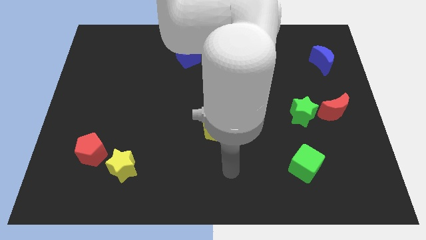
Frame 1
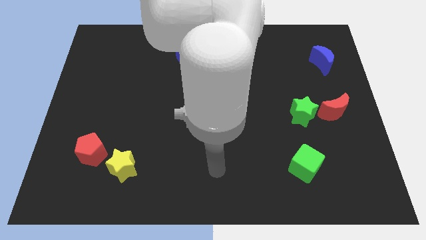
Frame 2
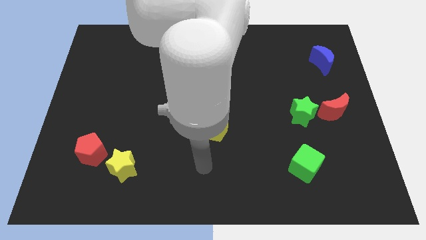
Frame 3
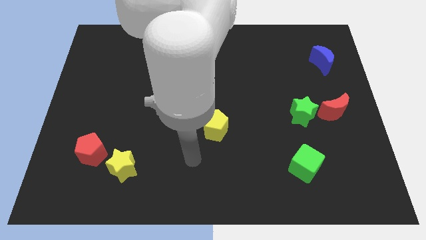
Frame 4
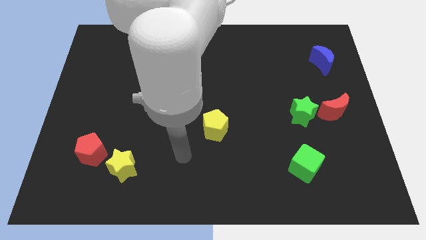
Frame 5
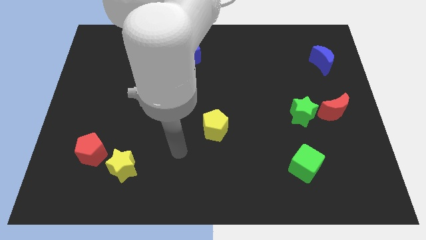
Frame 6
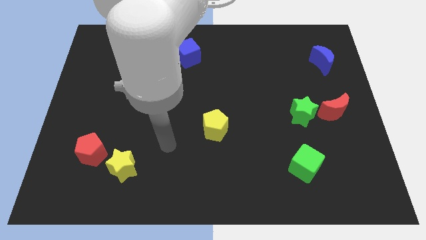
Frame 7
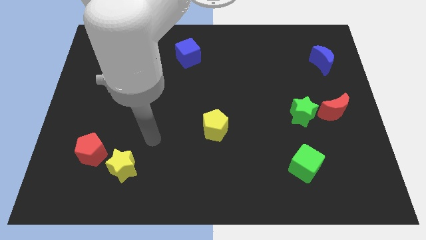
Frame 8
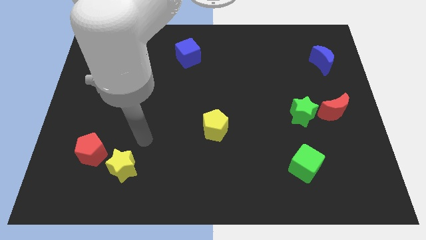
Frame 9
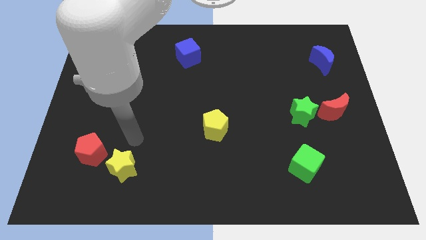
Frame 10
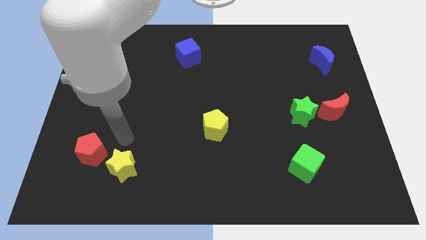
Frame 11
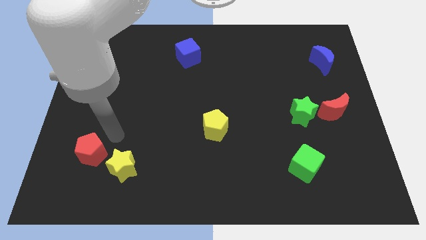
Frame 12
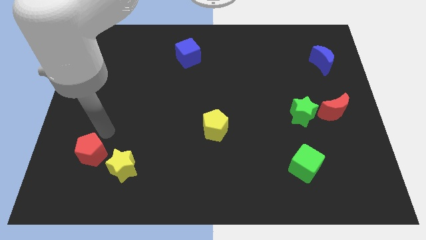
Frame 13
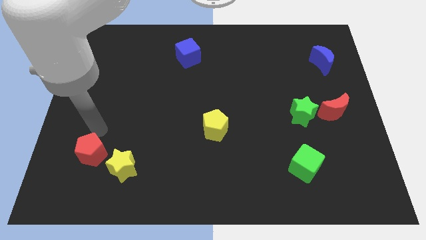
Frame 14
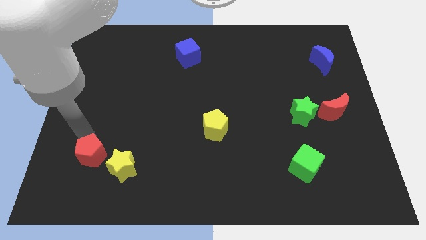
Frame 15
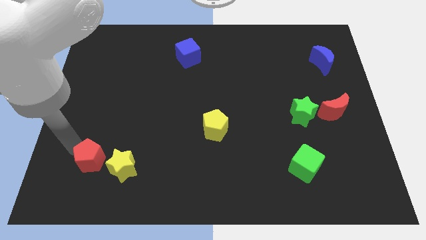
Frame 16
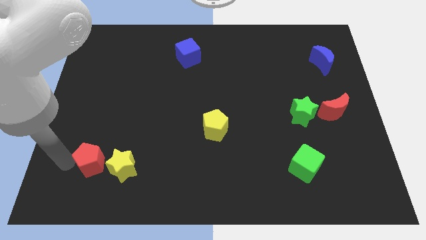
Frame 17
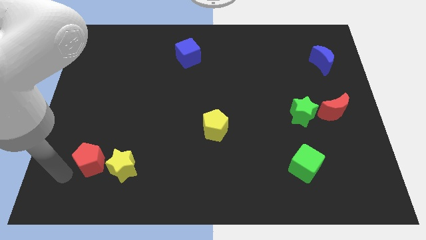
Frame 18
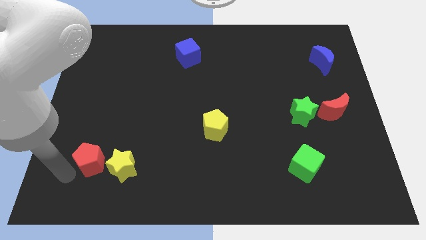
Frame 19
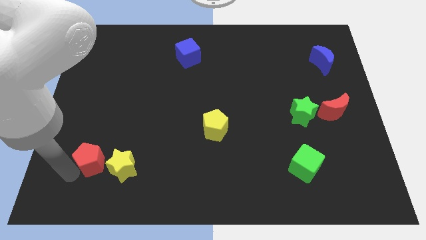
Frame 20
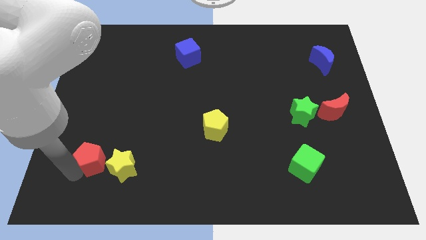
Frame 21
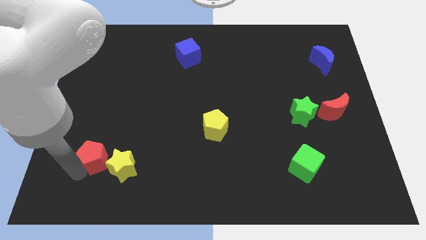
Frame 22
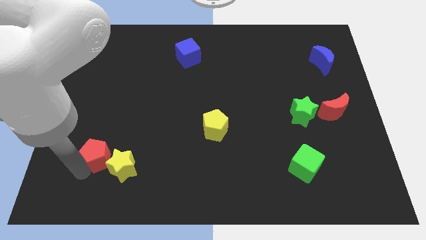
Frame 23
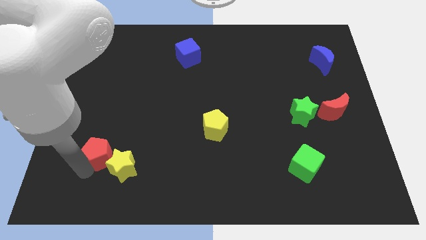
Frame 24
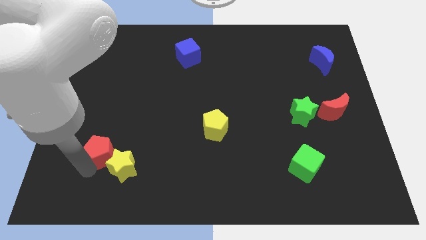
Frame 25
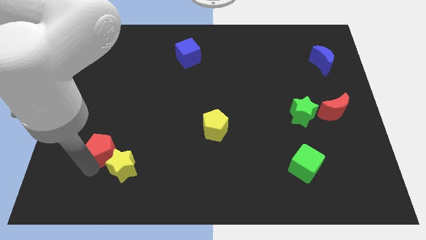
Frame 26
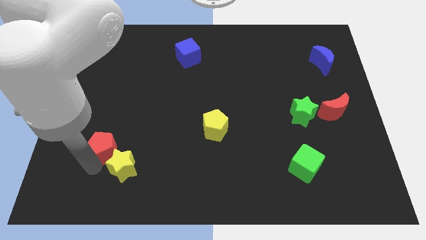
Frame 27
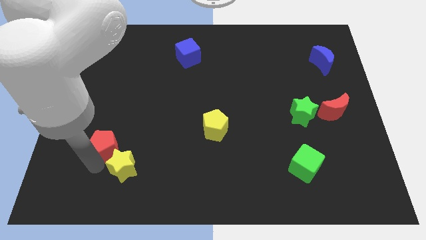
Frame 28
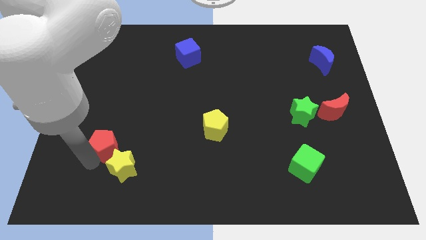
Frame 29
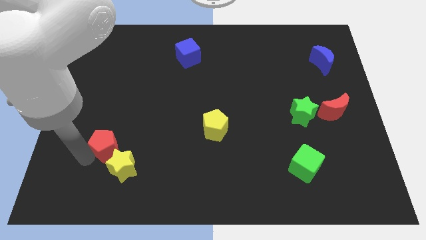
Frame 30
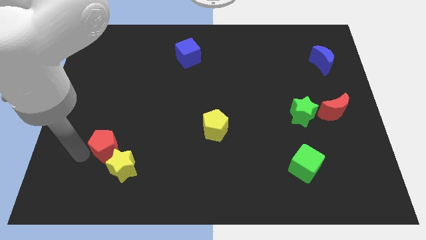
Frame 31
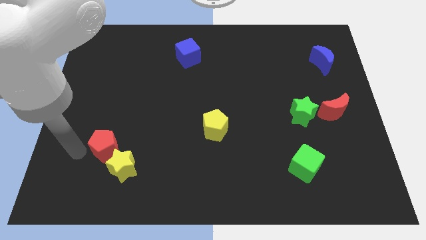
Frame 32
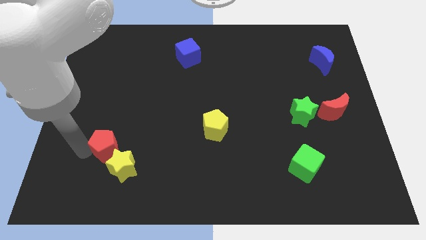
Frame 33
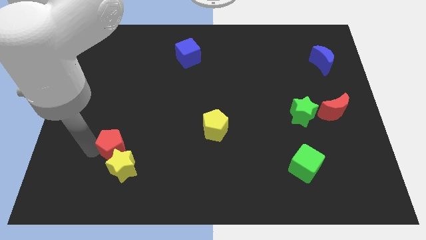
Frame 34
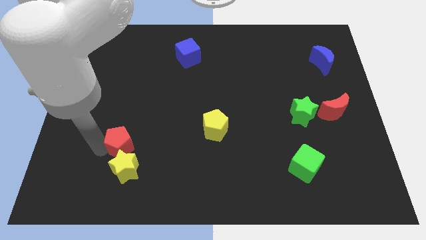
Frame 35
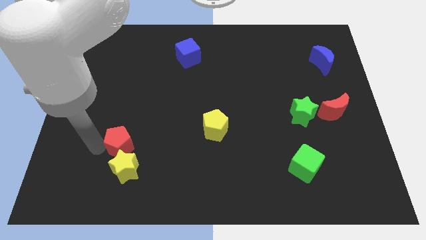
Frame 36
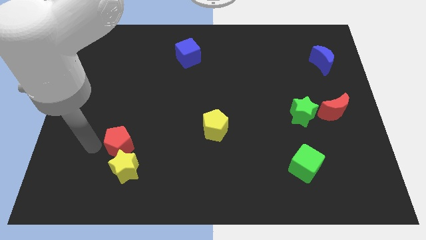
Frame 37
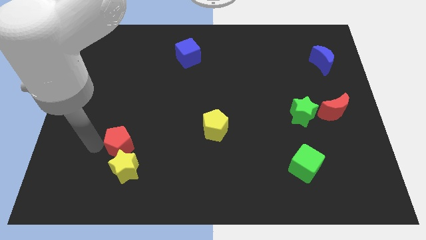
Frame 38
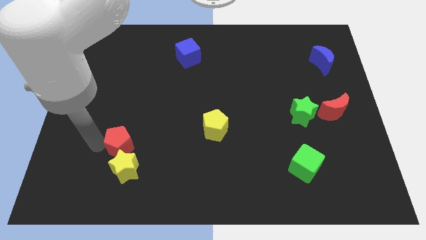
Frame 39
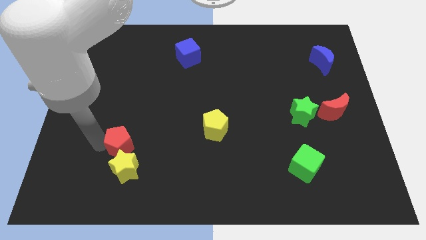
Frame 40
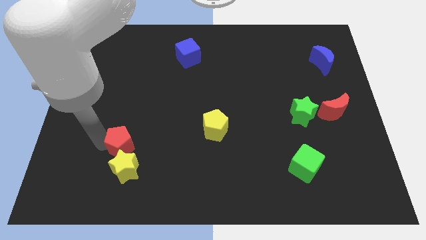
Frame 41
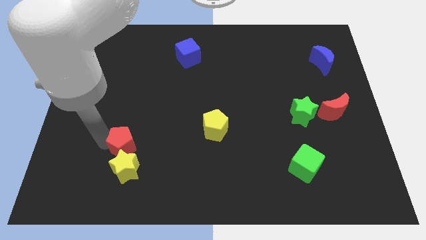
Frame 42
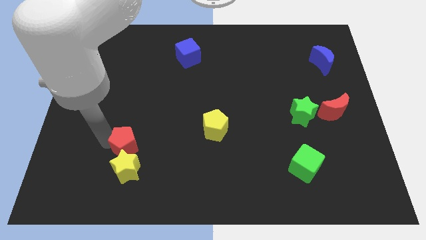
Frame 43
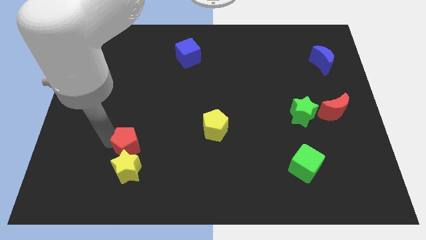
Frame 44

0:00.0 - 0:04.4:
push the red pentagon a bit right

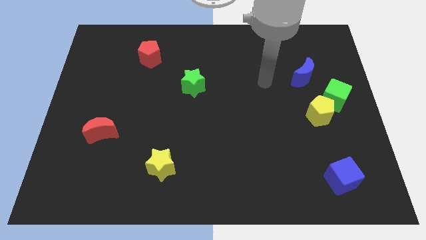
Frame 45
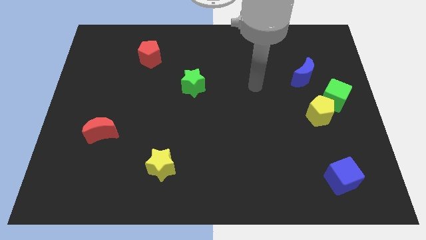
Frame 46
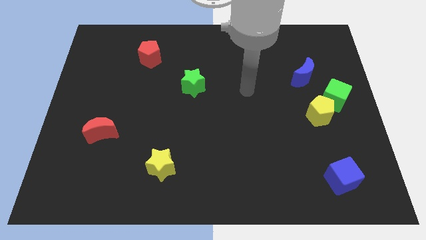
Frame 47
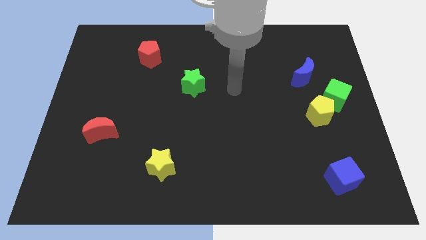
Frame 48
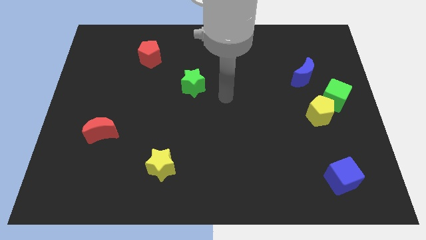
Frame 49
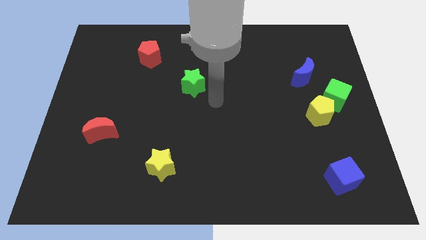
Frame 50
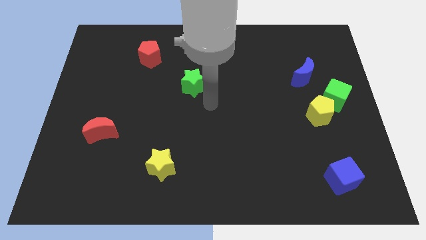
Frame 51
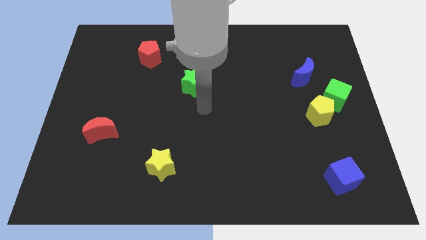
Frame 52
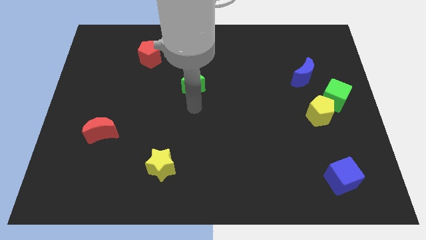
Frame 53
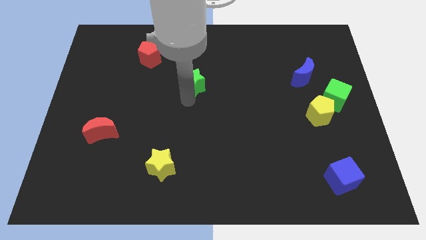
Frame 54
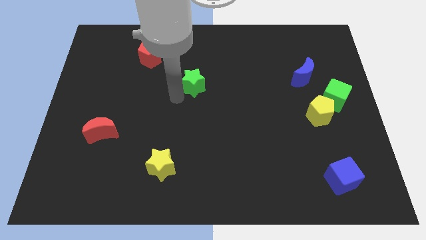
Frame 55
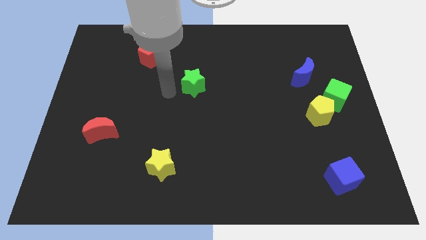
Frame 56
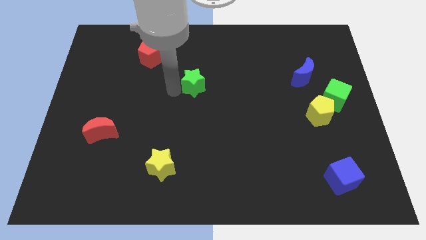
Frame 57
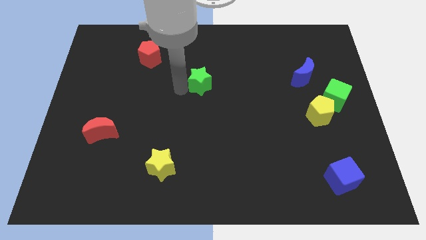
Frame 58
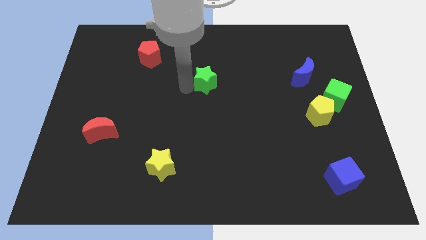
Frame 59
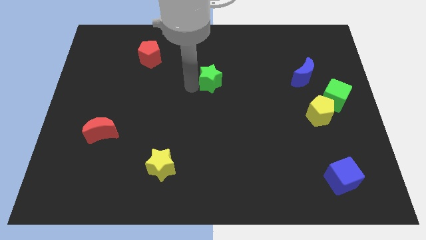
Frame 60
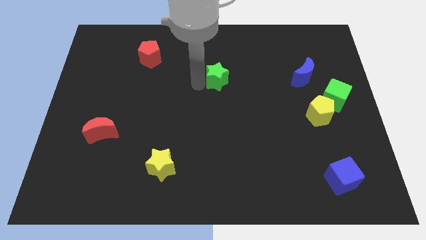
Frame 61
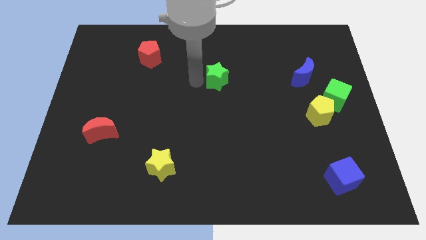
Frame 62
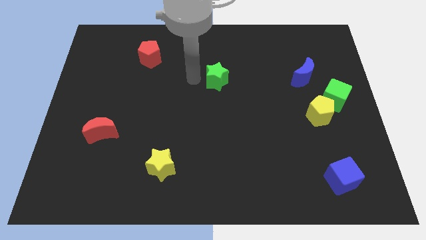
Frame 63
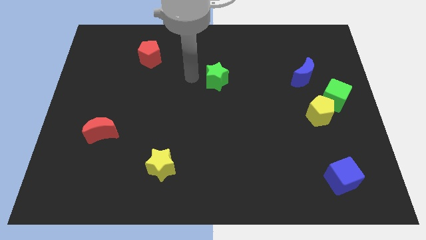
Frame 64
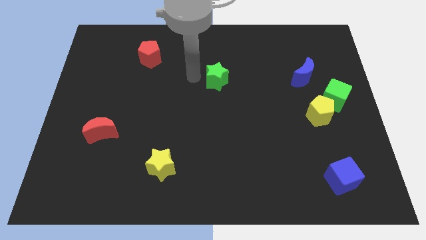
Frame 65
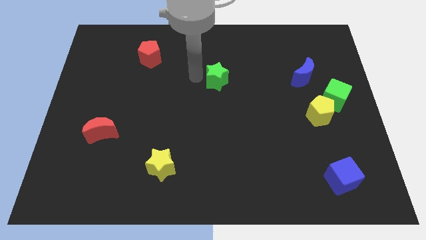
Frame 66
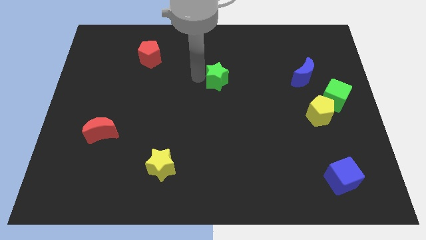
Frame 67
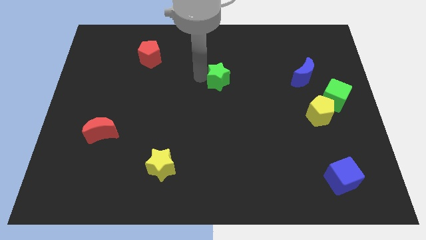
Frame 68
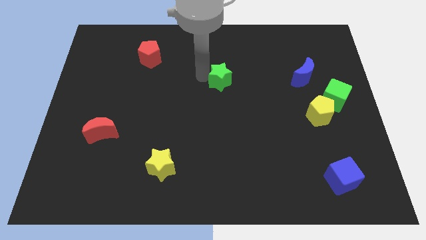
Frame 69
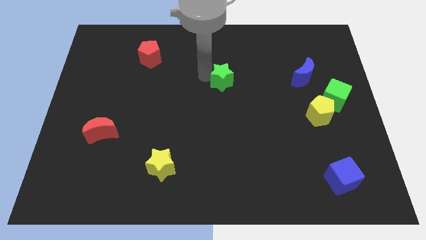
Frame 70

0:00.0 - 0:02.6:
push the green star a little bit right

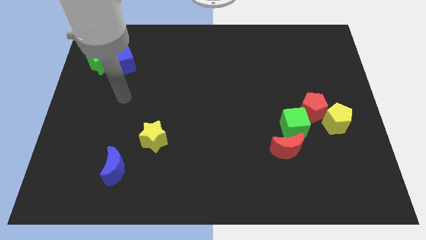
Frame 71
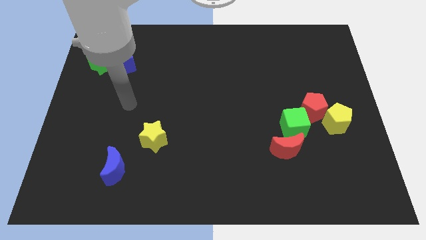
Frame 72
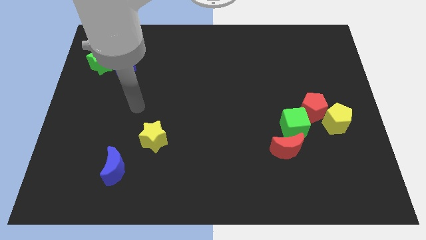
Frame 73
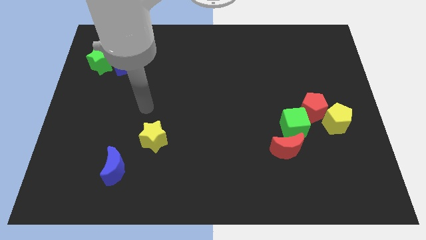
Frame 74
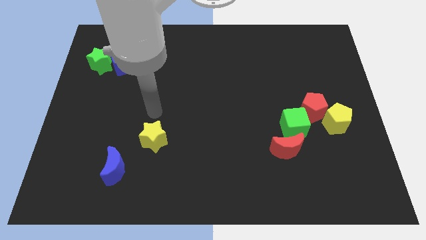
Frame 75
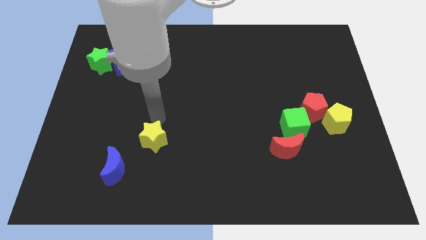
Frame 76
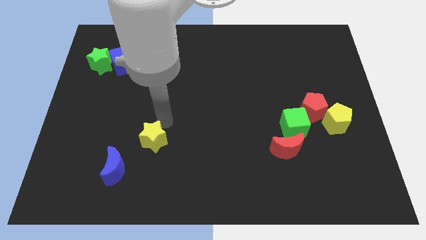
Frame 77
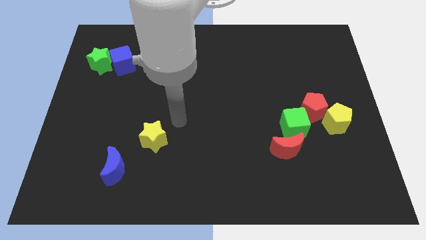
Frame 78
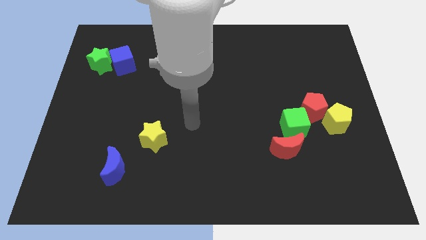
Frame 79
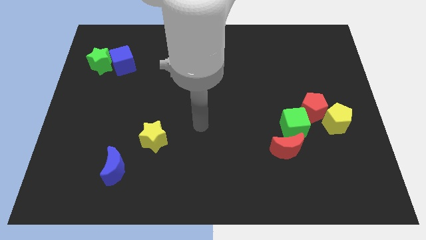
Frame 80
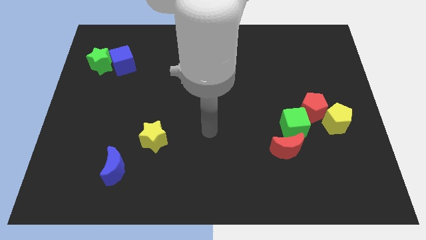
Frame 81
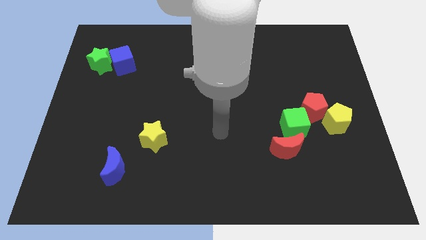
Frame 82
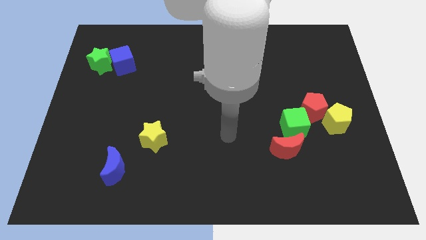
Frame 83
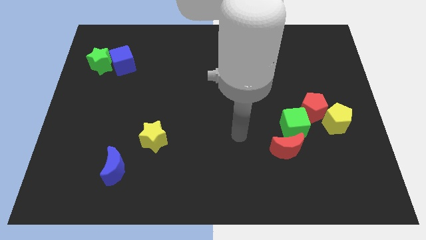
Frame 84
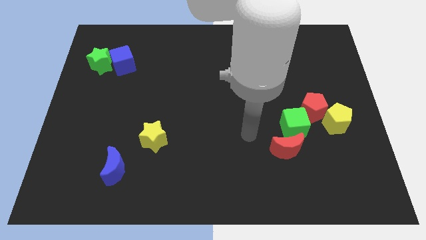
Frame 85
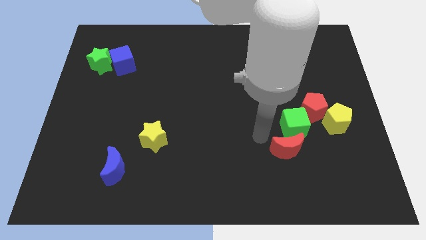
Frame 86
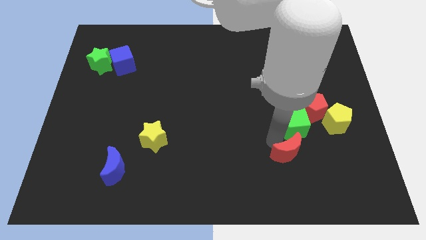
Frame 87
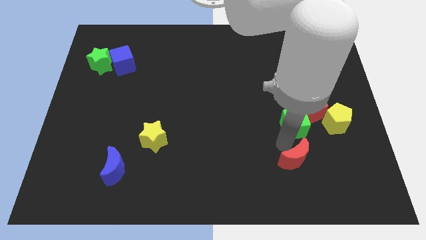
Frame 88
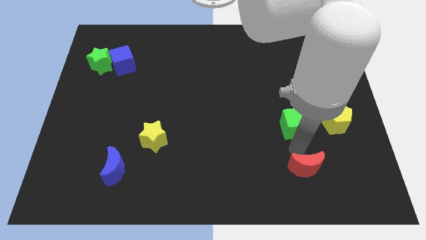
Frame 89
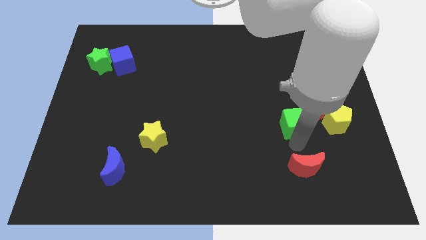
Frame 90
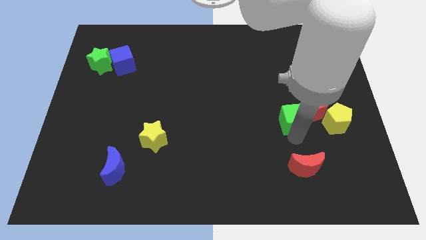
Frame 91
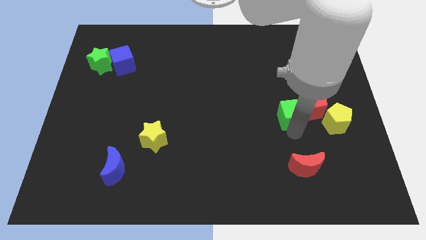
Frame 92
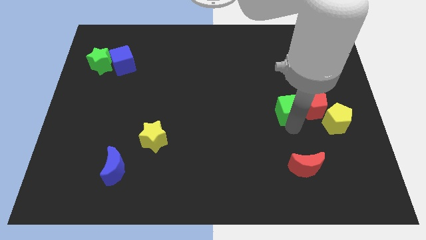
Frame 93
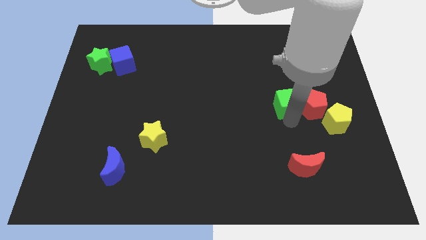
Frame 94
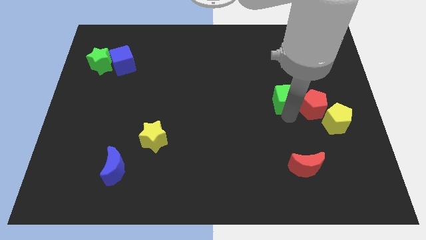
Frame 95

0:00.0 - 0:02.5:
push the green cube a bit up
